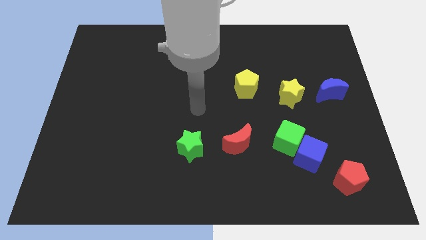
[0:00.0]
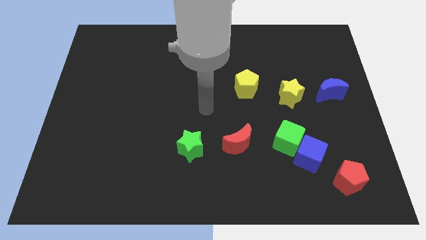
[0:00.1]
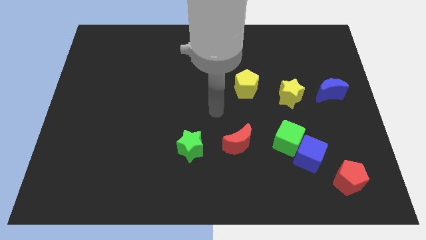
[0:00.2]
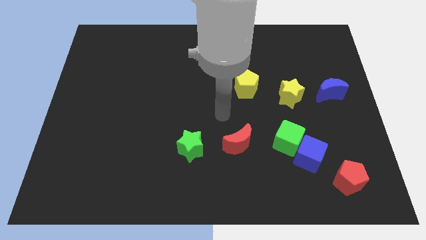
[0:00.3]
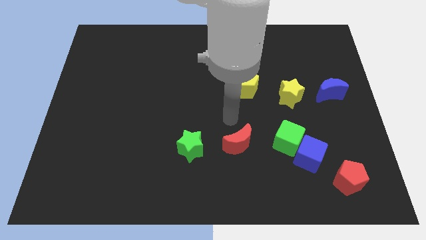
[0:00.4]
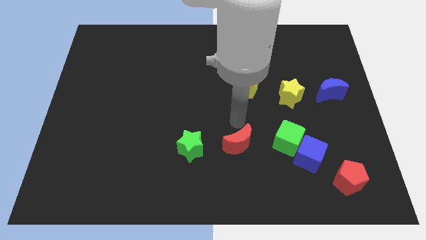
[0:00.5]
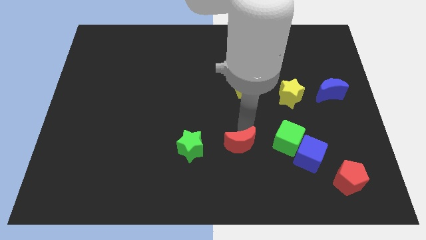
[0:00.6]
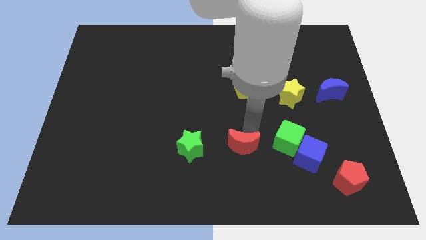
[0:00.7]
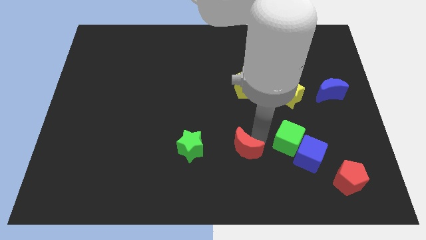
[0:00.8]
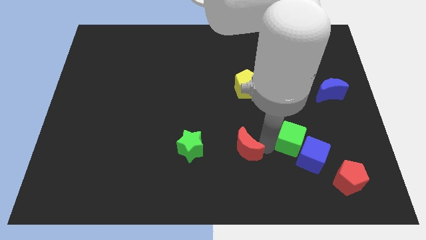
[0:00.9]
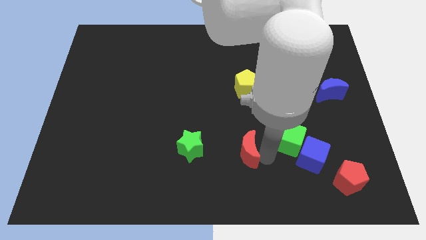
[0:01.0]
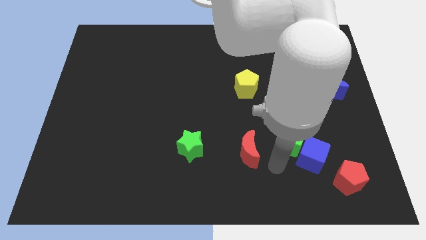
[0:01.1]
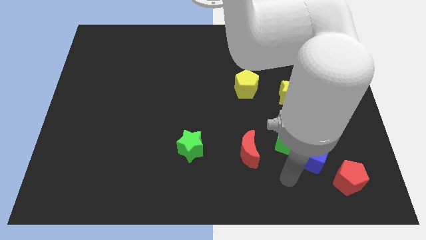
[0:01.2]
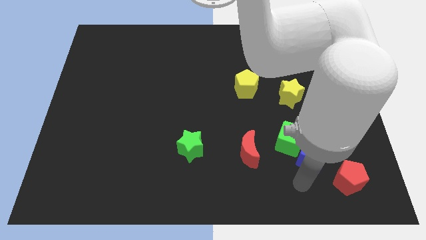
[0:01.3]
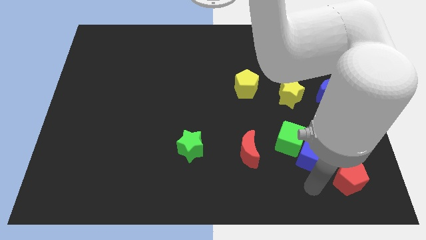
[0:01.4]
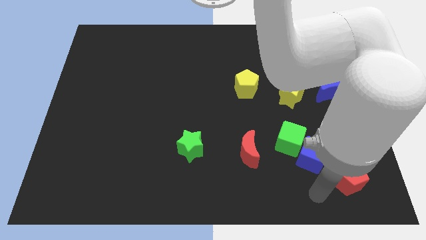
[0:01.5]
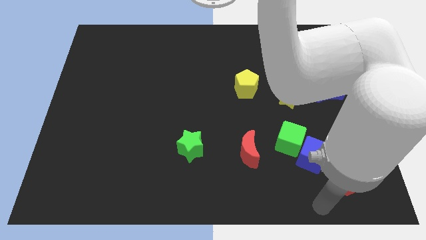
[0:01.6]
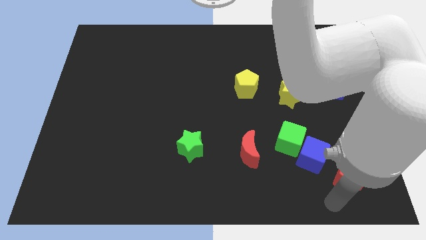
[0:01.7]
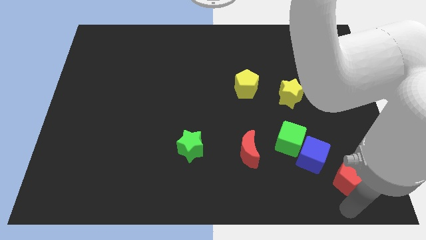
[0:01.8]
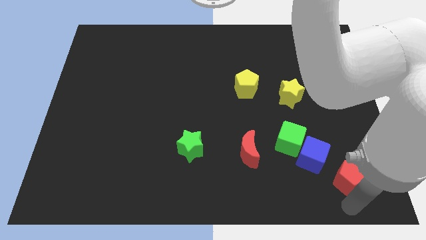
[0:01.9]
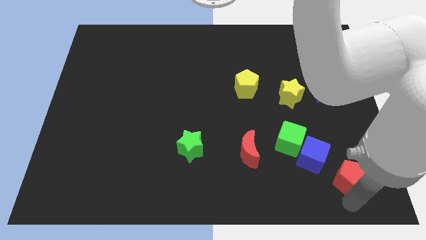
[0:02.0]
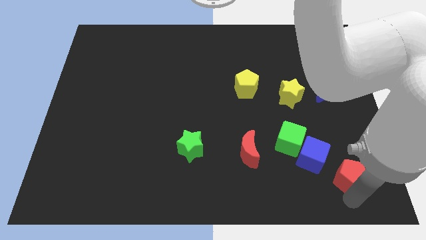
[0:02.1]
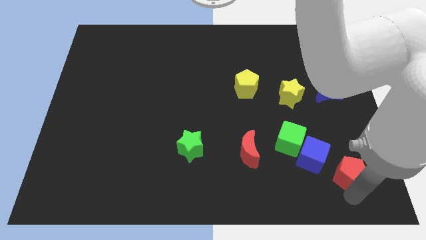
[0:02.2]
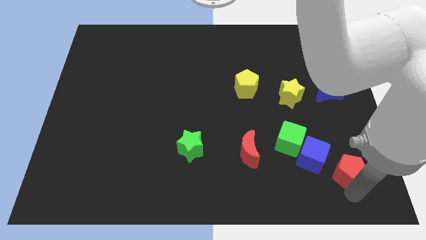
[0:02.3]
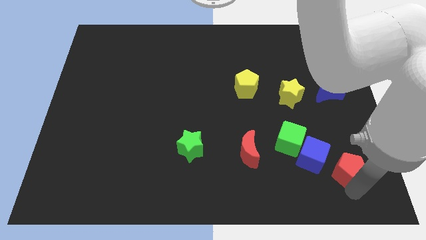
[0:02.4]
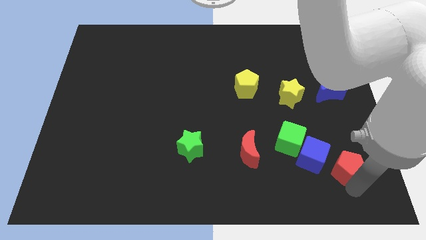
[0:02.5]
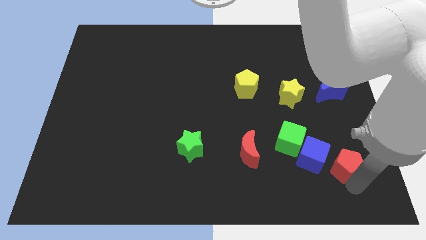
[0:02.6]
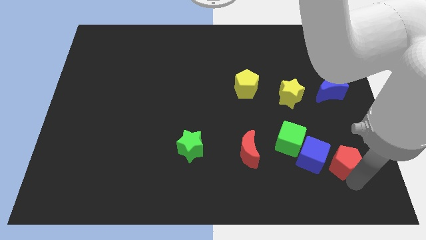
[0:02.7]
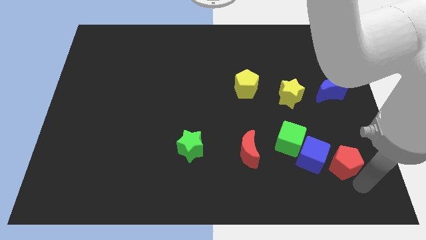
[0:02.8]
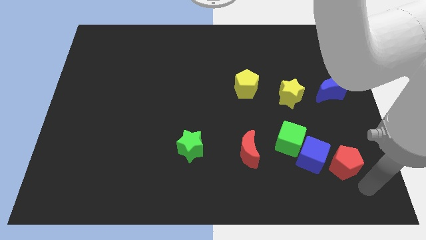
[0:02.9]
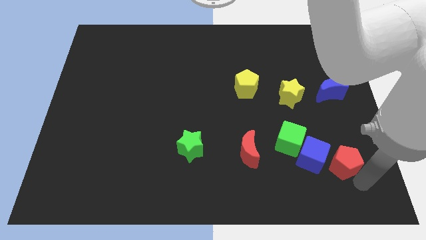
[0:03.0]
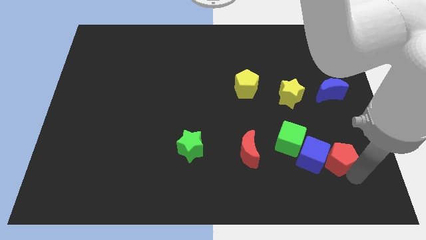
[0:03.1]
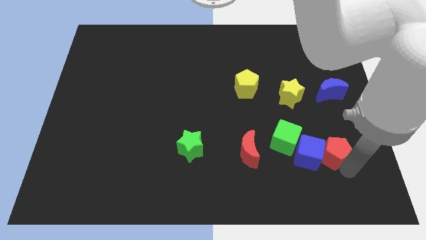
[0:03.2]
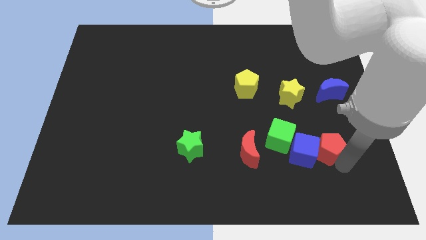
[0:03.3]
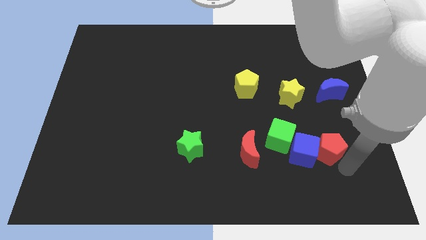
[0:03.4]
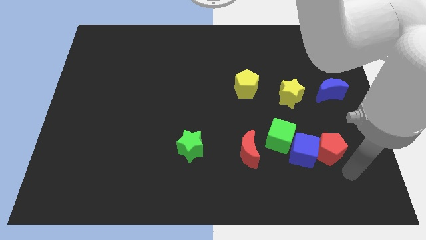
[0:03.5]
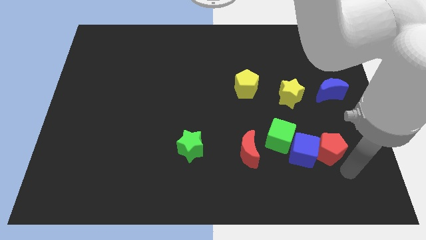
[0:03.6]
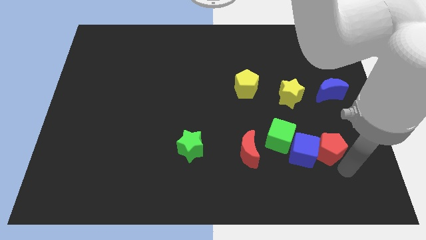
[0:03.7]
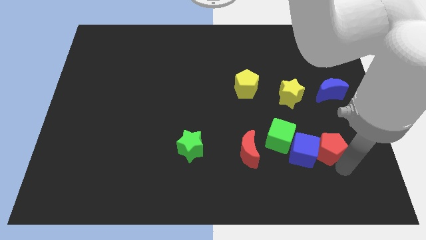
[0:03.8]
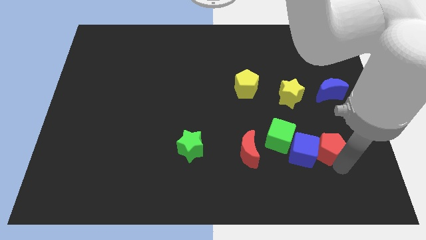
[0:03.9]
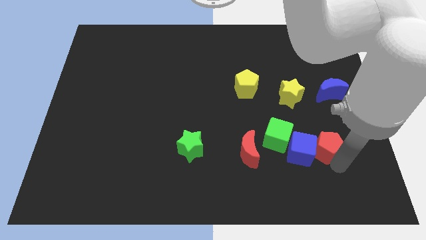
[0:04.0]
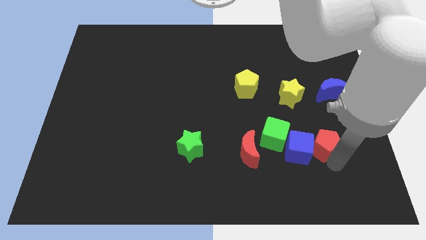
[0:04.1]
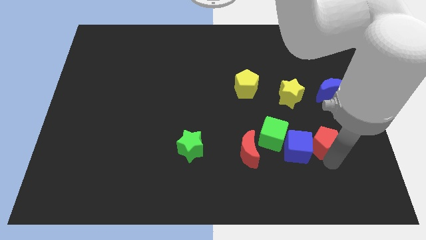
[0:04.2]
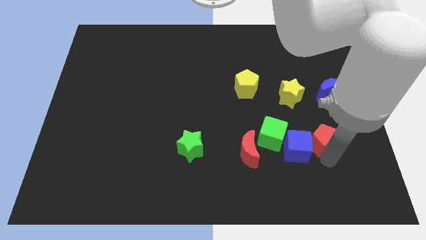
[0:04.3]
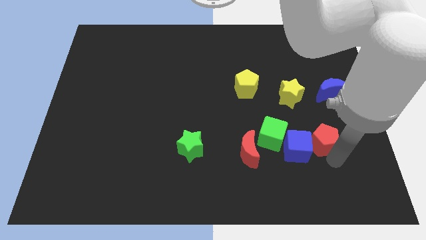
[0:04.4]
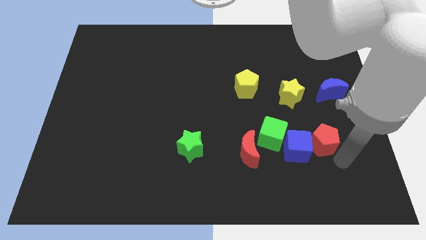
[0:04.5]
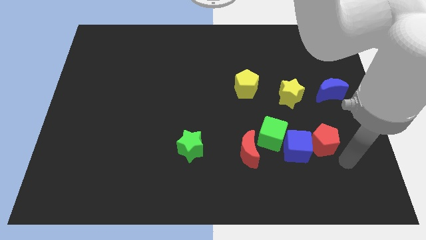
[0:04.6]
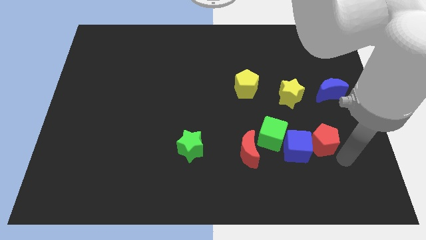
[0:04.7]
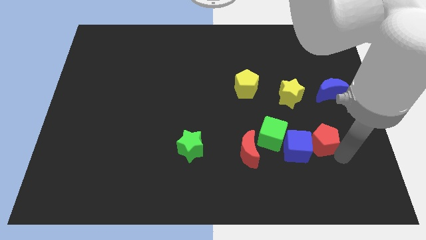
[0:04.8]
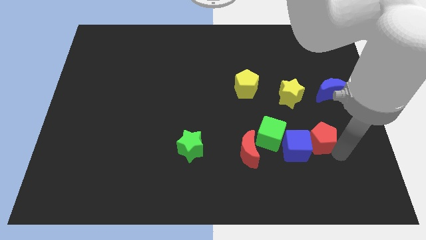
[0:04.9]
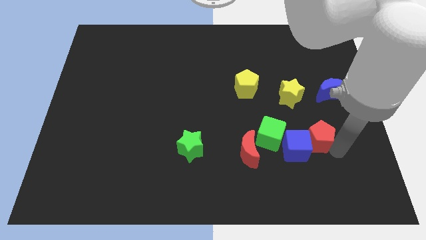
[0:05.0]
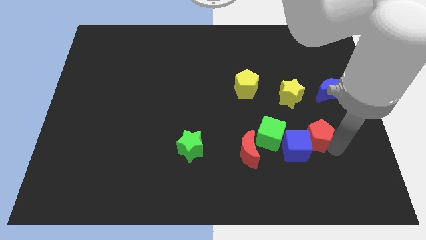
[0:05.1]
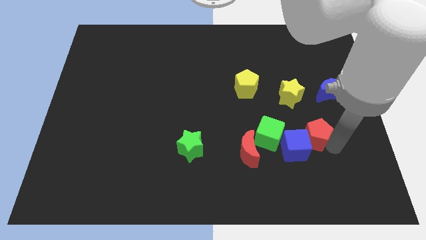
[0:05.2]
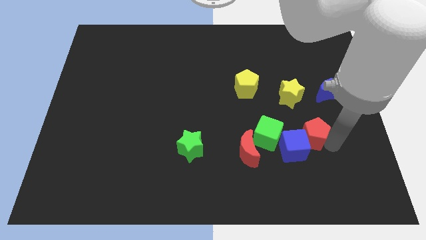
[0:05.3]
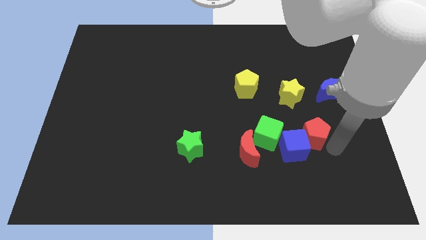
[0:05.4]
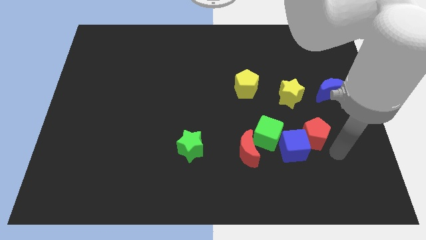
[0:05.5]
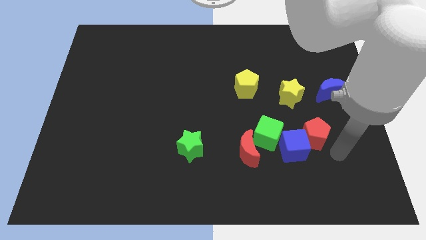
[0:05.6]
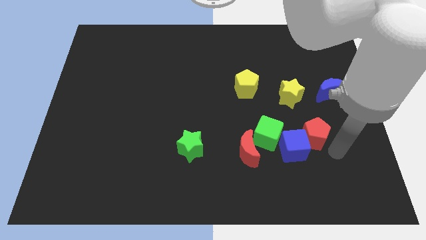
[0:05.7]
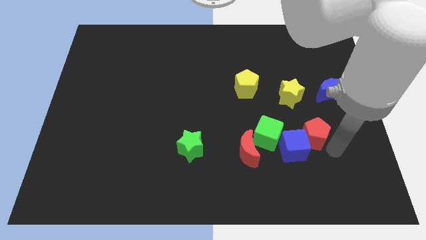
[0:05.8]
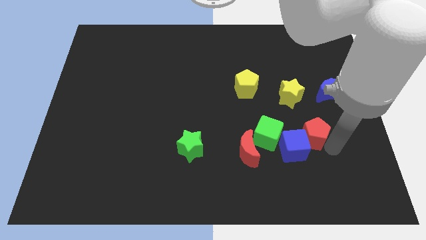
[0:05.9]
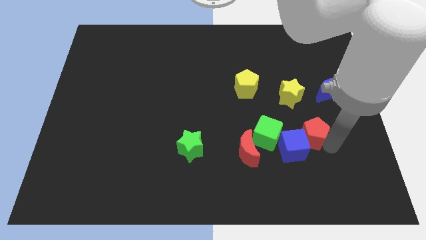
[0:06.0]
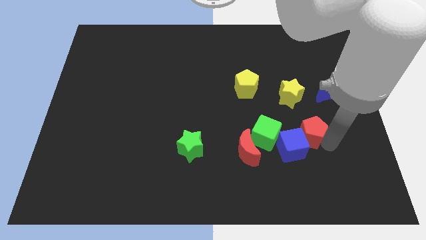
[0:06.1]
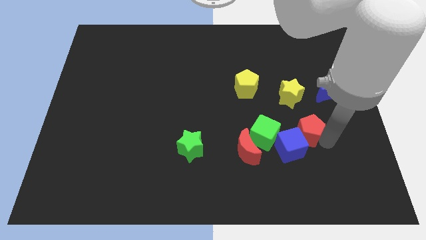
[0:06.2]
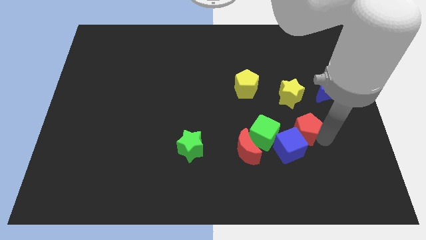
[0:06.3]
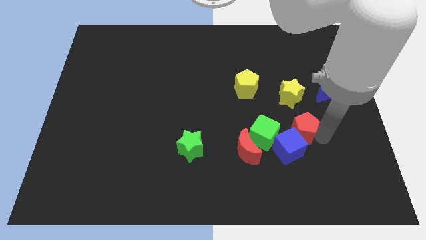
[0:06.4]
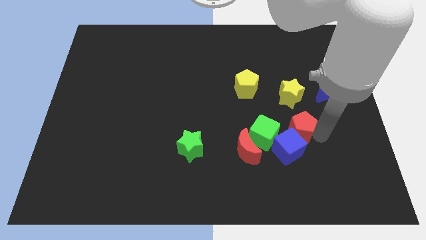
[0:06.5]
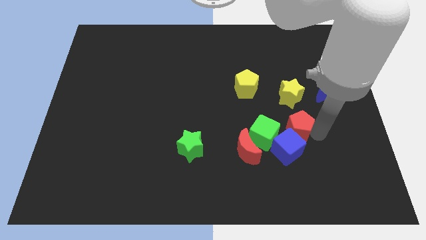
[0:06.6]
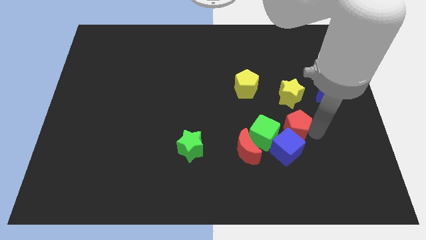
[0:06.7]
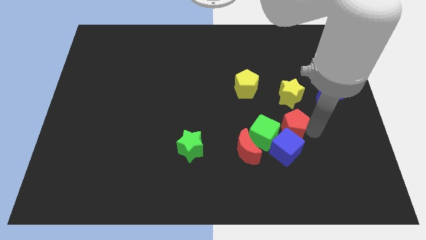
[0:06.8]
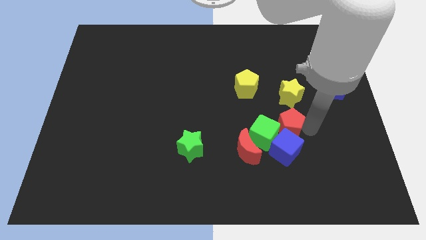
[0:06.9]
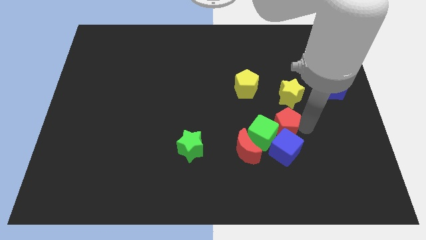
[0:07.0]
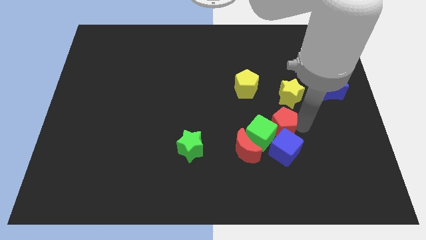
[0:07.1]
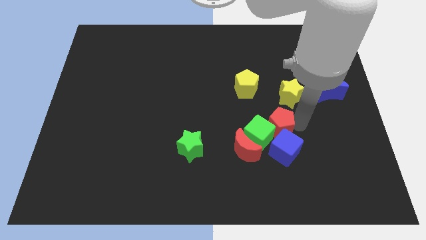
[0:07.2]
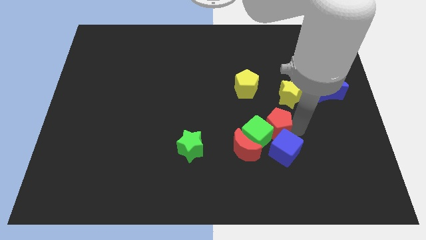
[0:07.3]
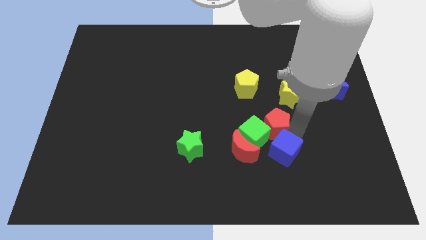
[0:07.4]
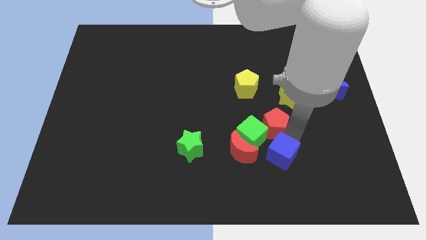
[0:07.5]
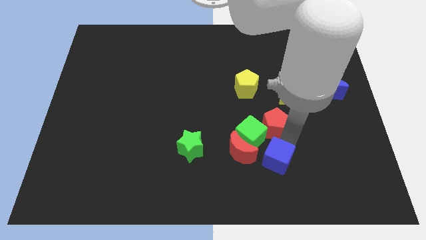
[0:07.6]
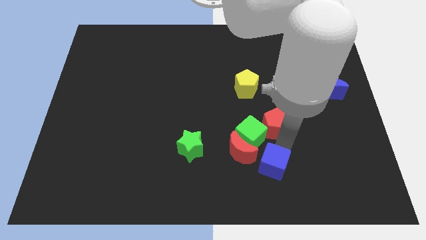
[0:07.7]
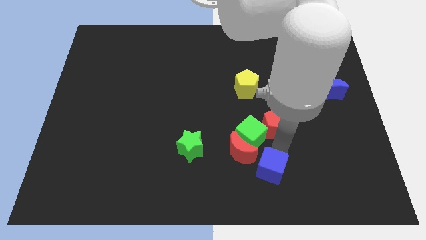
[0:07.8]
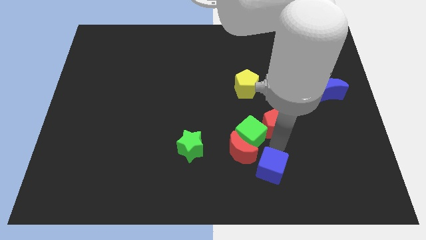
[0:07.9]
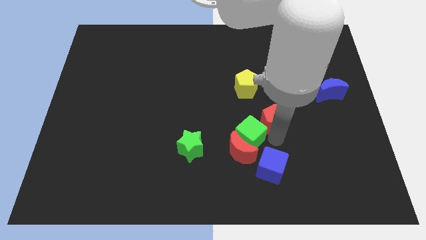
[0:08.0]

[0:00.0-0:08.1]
push the red pentagon to the bottom right of the yellow pentagon
